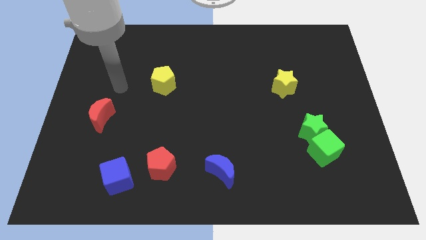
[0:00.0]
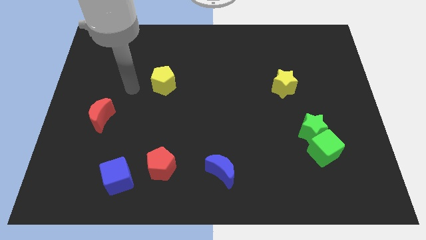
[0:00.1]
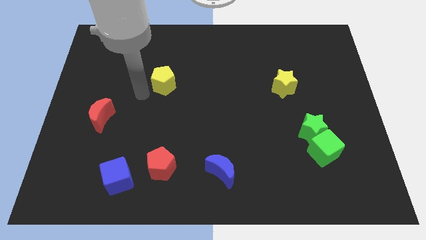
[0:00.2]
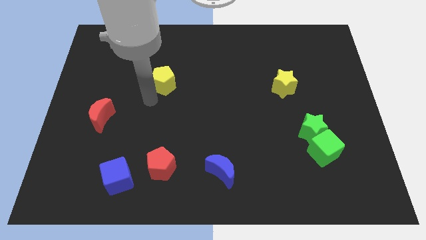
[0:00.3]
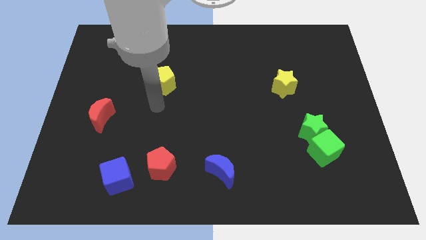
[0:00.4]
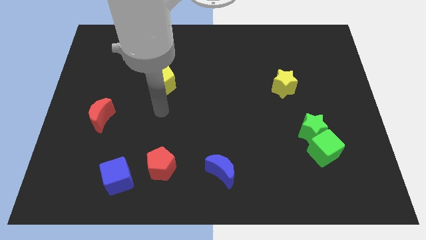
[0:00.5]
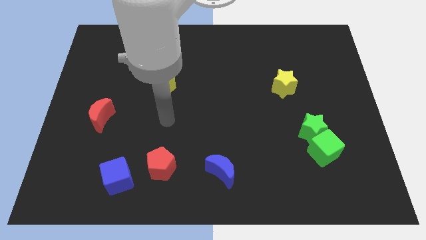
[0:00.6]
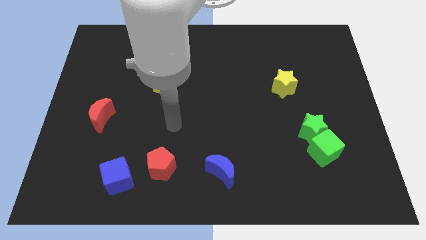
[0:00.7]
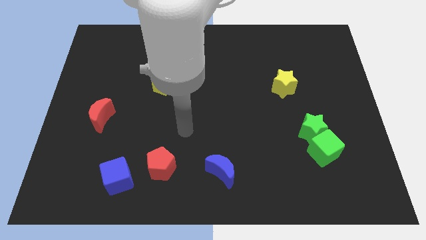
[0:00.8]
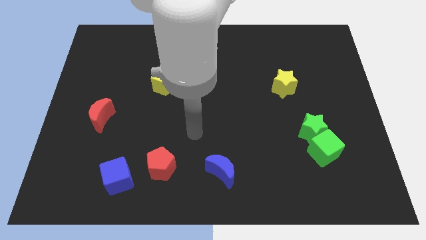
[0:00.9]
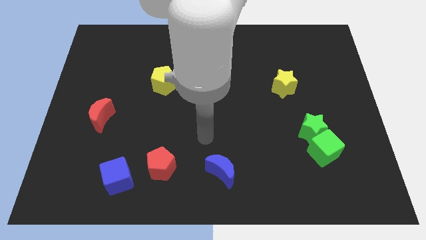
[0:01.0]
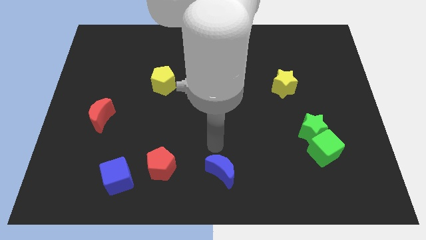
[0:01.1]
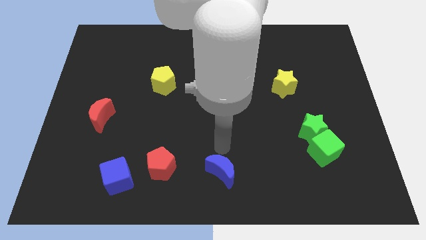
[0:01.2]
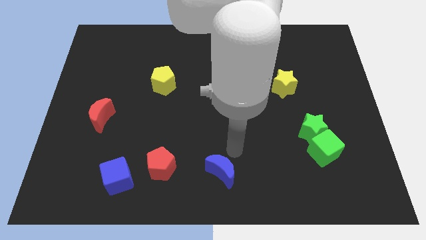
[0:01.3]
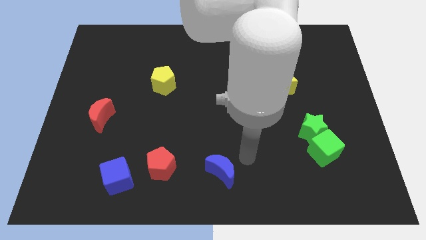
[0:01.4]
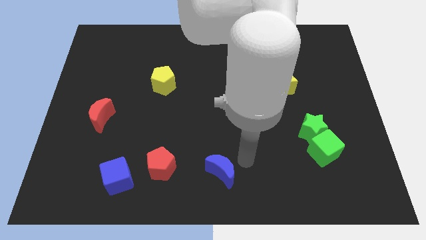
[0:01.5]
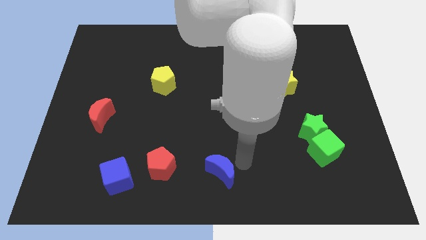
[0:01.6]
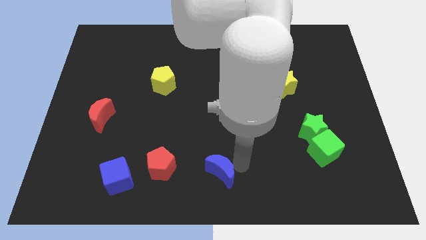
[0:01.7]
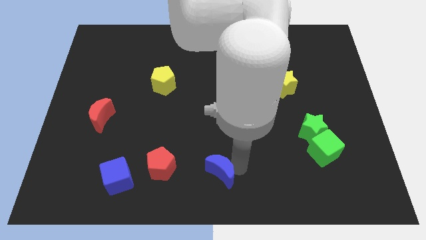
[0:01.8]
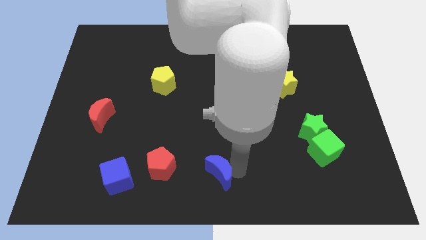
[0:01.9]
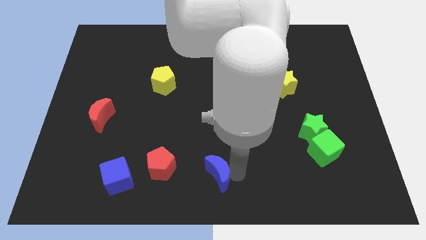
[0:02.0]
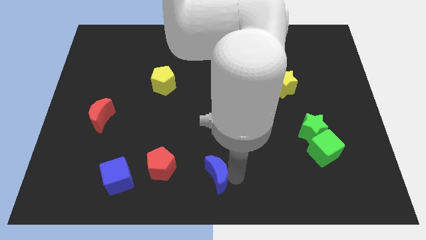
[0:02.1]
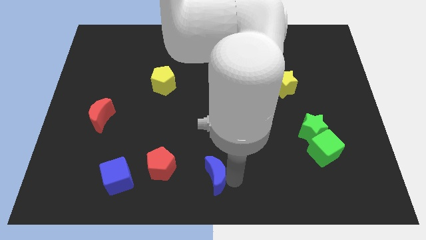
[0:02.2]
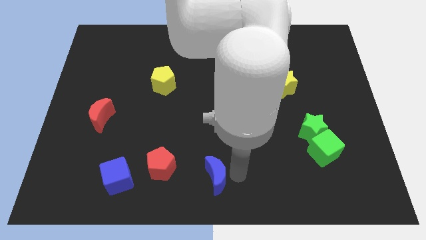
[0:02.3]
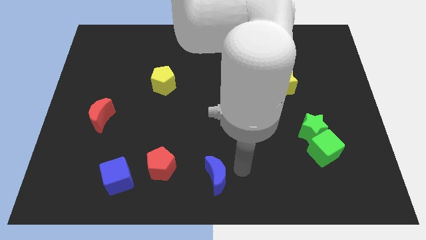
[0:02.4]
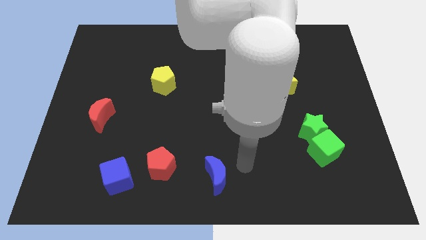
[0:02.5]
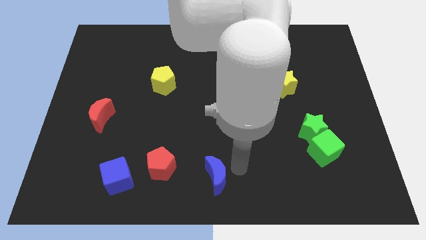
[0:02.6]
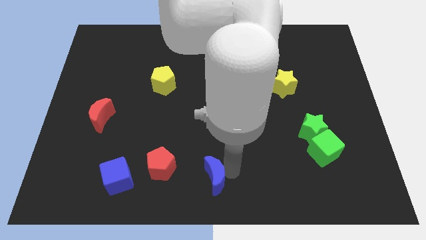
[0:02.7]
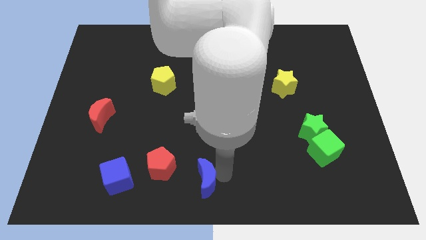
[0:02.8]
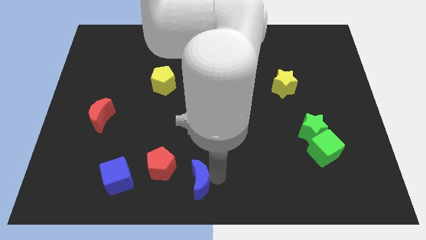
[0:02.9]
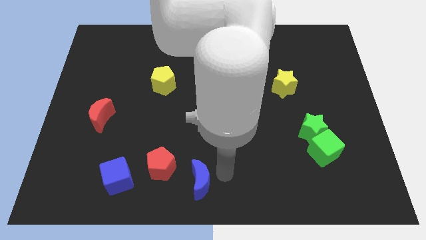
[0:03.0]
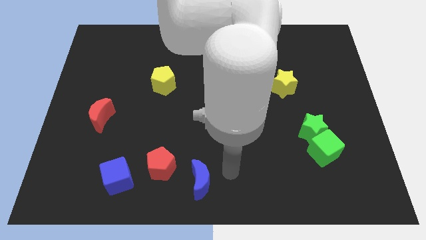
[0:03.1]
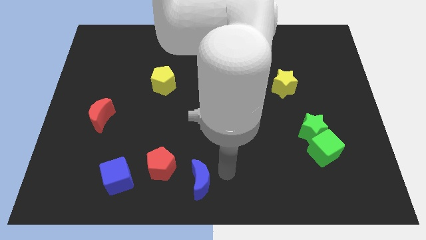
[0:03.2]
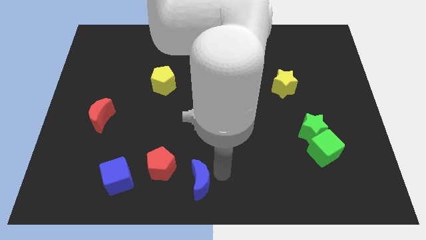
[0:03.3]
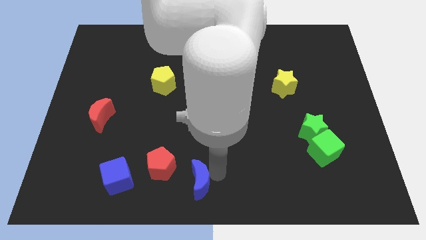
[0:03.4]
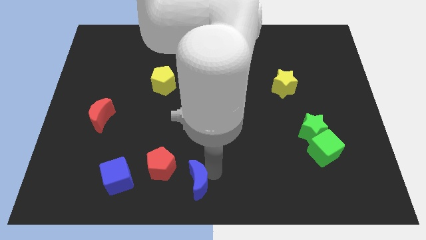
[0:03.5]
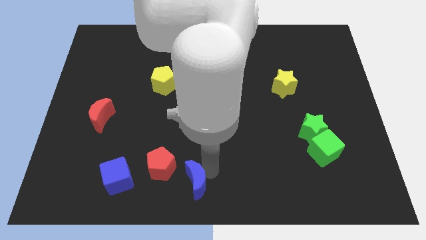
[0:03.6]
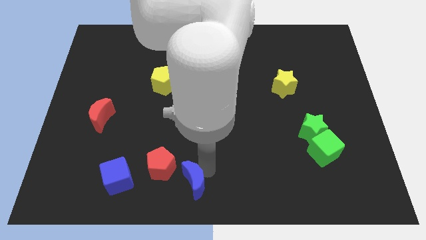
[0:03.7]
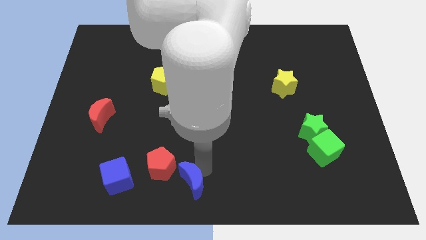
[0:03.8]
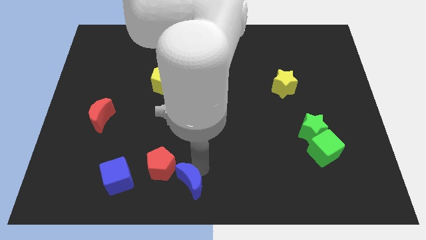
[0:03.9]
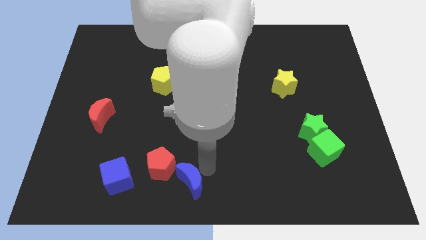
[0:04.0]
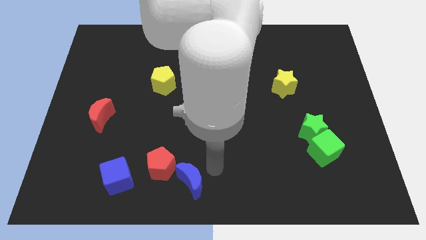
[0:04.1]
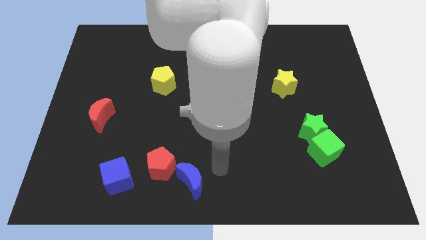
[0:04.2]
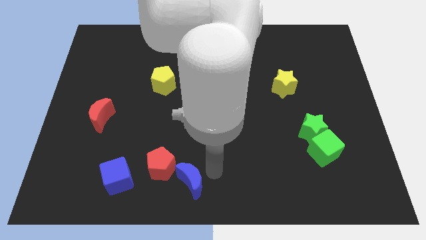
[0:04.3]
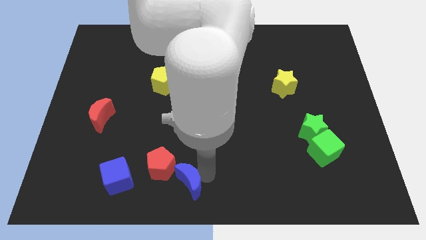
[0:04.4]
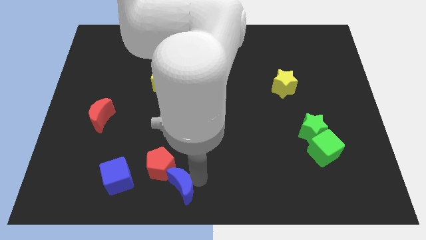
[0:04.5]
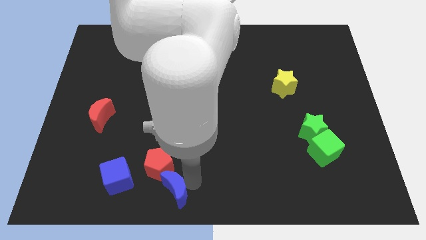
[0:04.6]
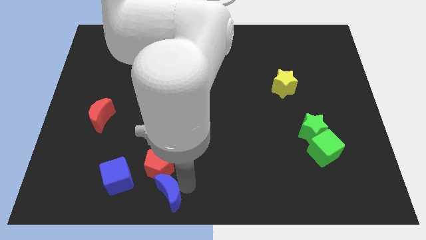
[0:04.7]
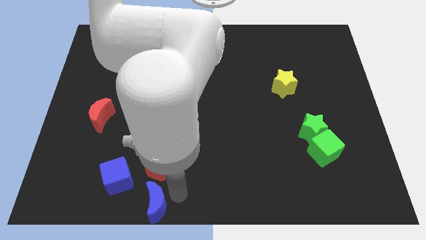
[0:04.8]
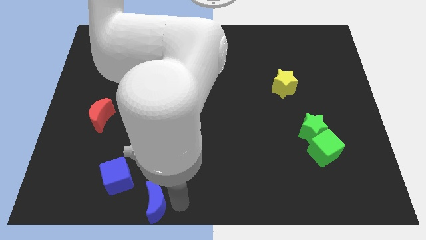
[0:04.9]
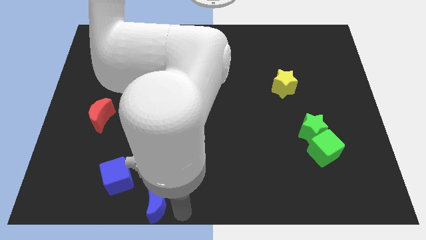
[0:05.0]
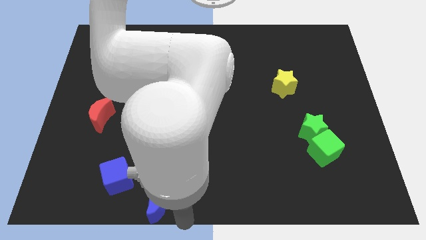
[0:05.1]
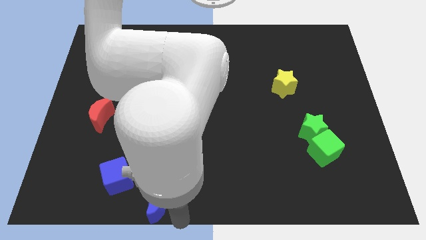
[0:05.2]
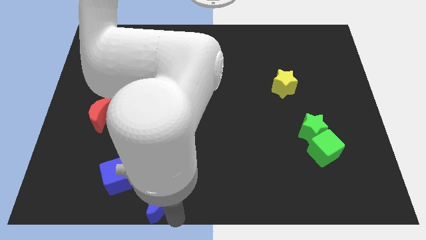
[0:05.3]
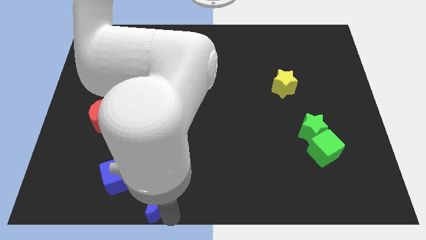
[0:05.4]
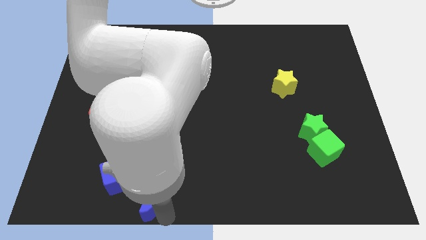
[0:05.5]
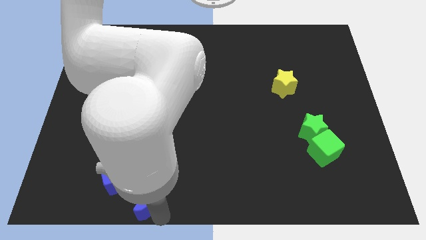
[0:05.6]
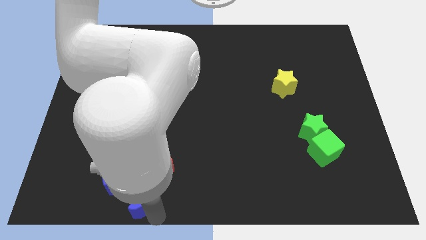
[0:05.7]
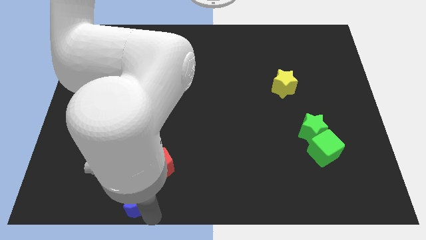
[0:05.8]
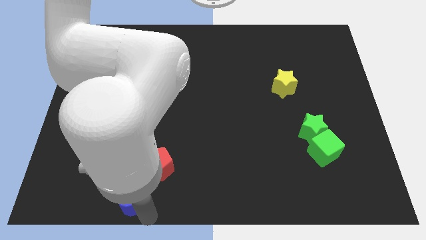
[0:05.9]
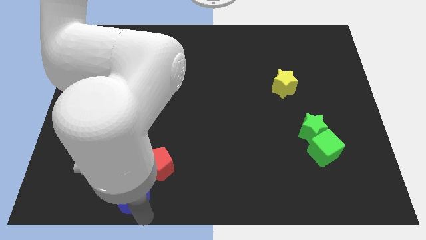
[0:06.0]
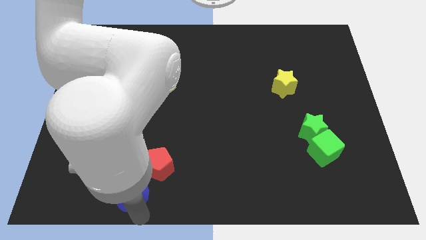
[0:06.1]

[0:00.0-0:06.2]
push the blue moon to the blue cube

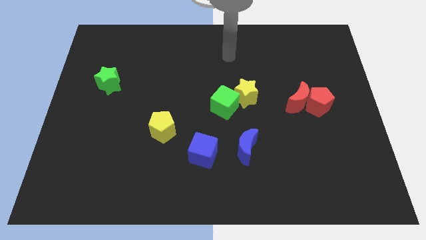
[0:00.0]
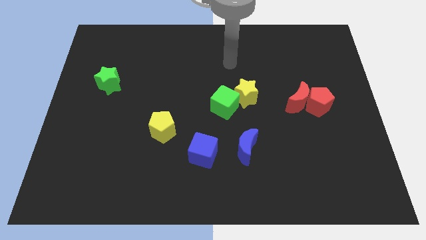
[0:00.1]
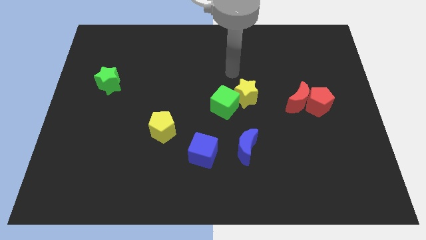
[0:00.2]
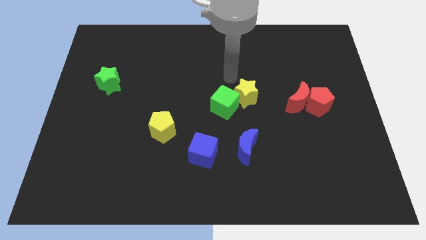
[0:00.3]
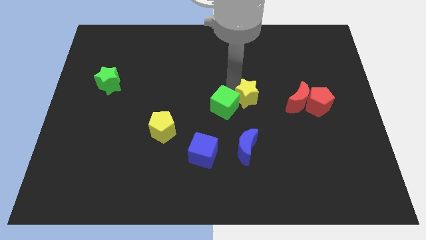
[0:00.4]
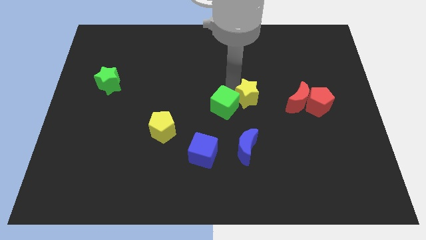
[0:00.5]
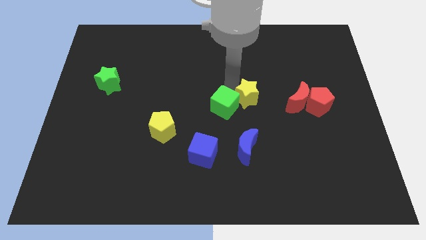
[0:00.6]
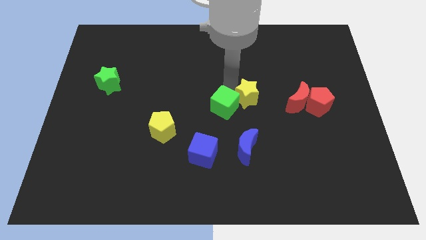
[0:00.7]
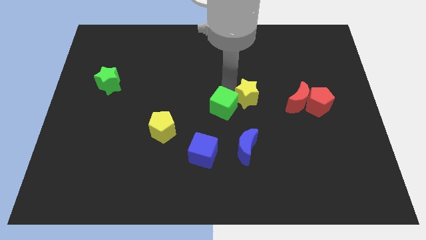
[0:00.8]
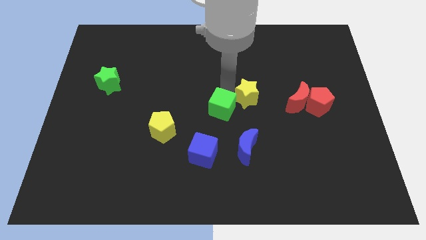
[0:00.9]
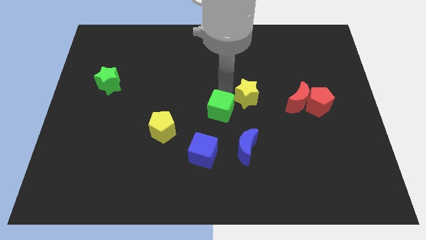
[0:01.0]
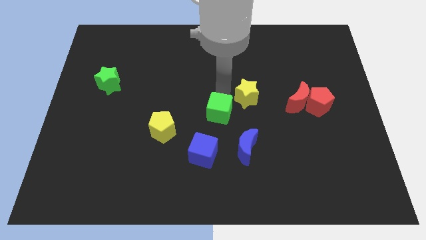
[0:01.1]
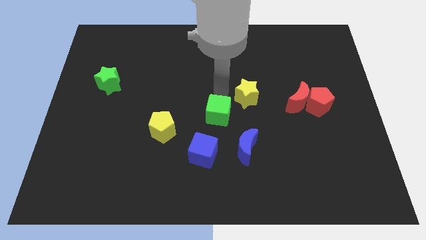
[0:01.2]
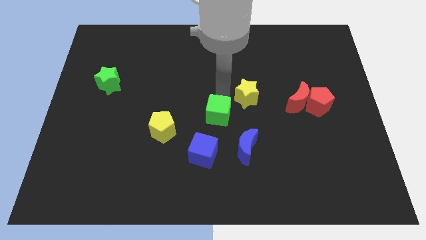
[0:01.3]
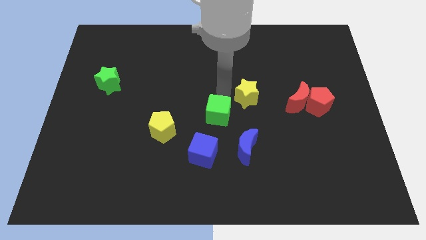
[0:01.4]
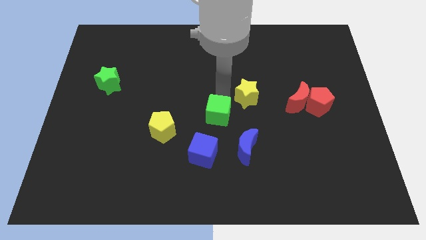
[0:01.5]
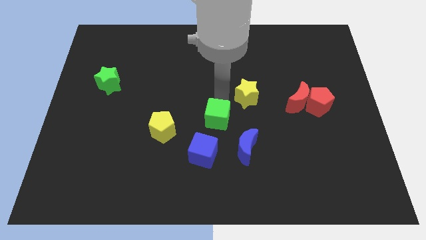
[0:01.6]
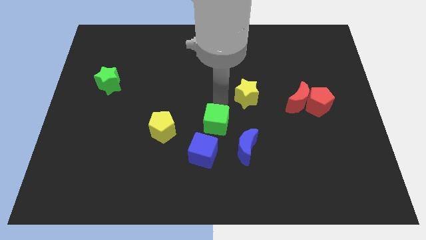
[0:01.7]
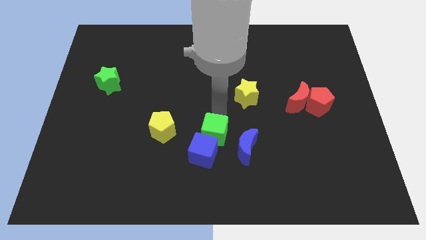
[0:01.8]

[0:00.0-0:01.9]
put the green cube close to the blue cube
